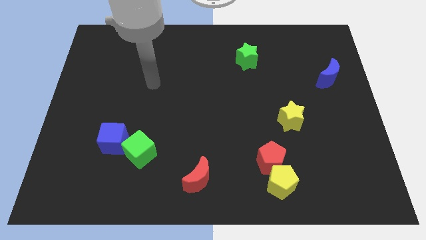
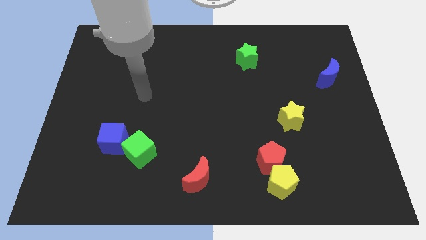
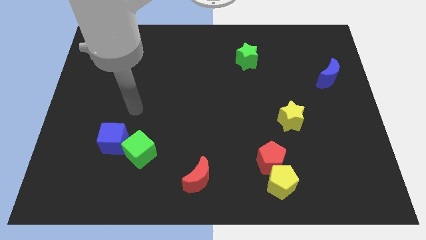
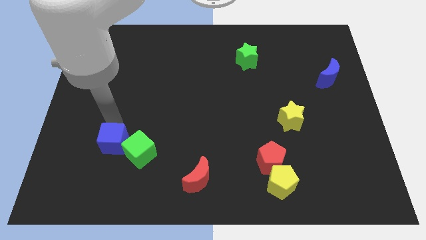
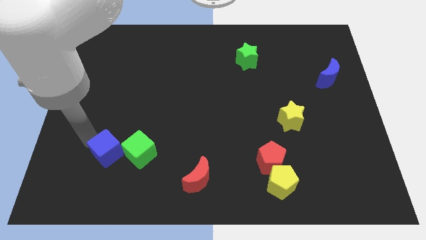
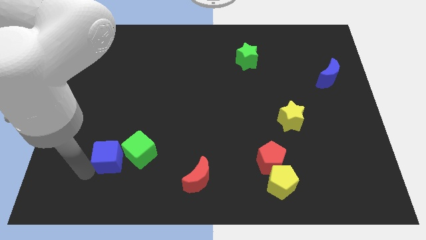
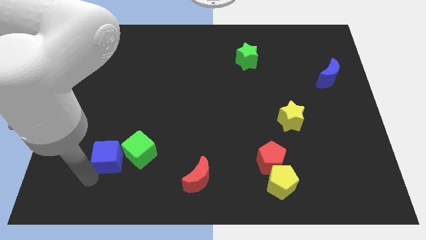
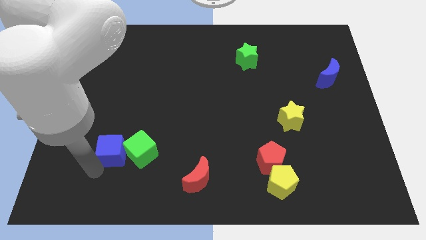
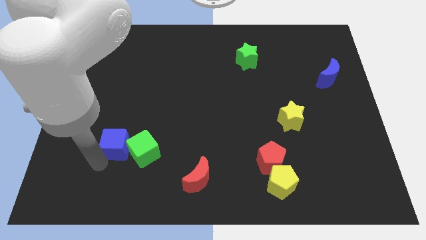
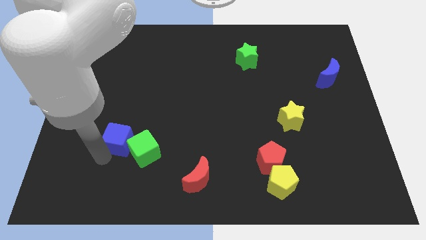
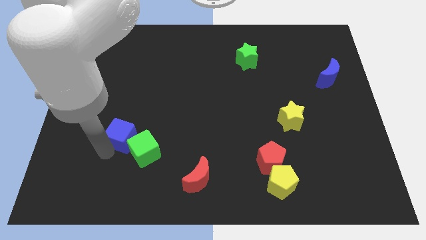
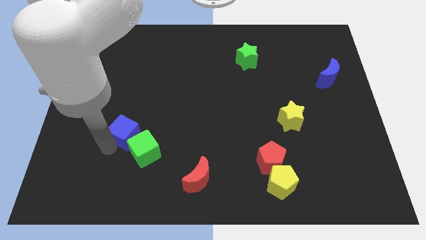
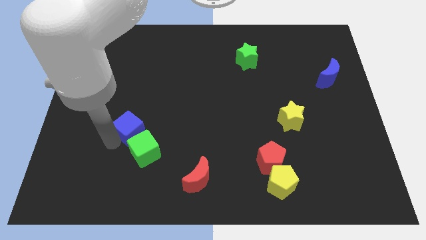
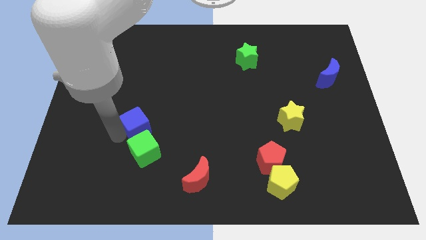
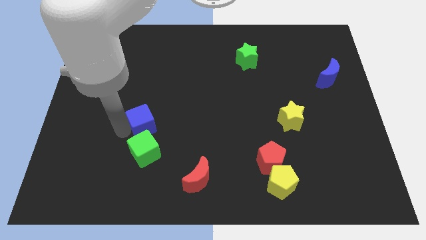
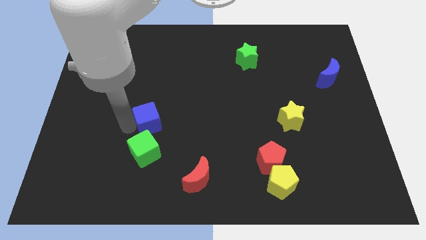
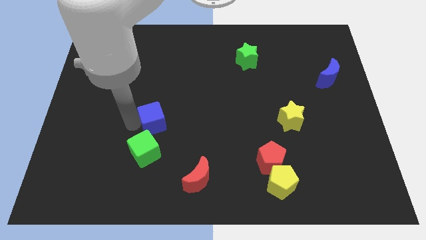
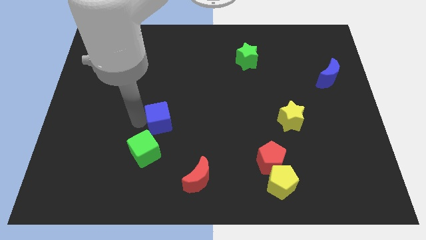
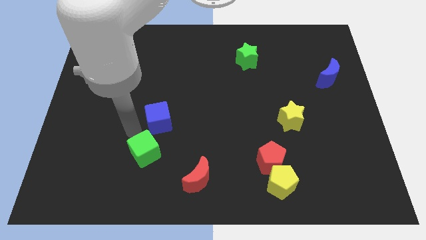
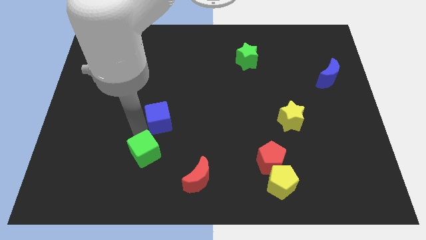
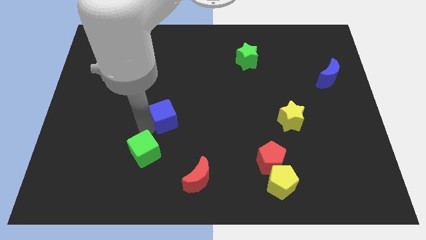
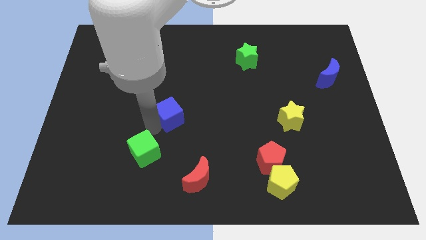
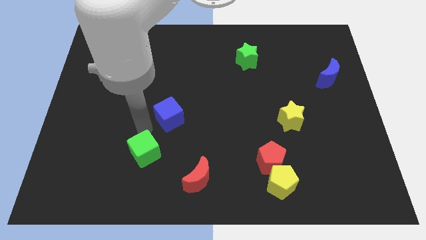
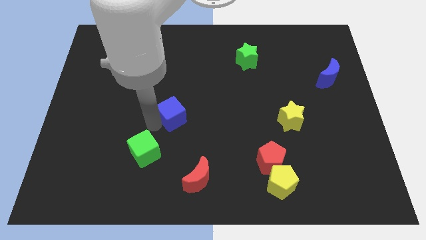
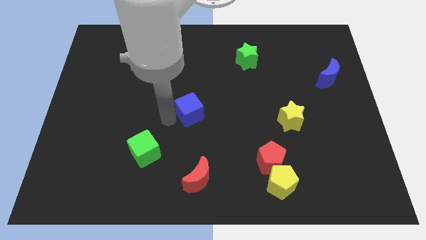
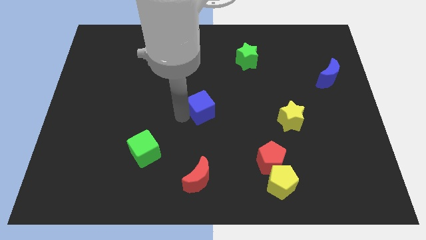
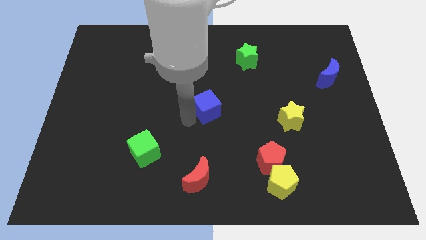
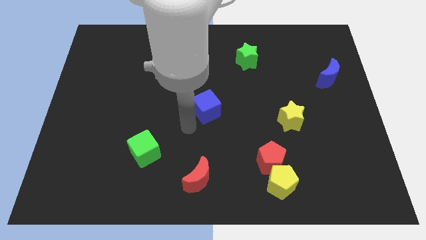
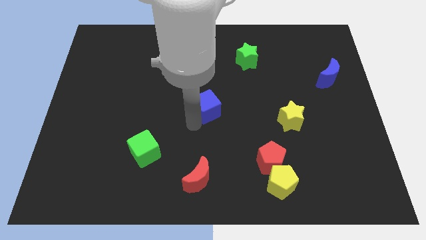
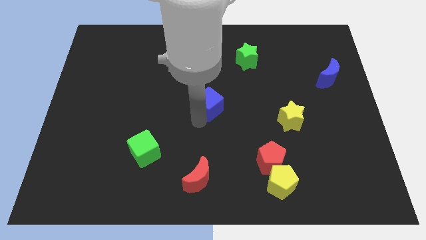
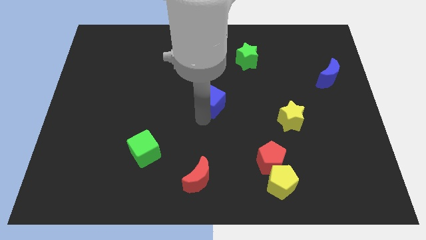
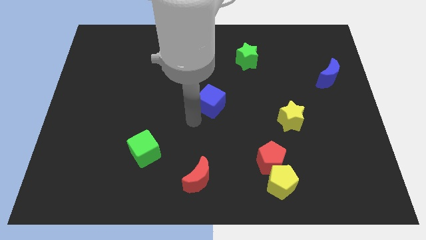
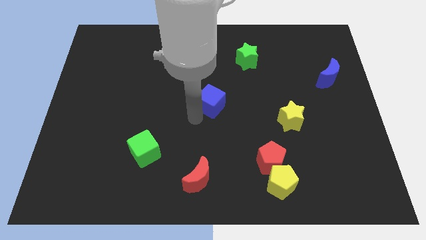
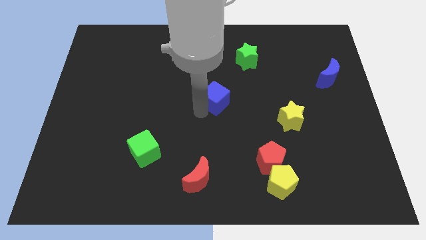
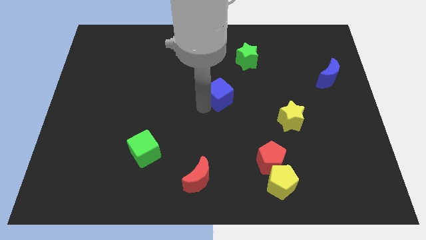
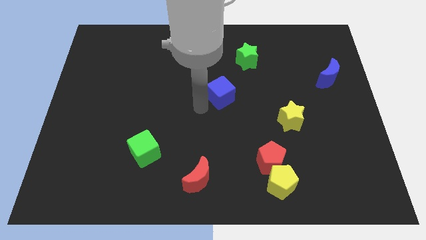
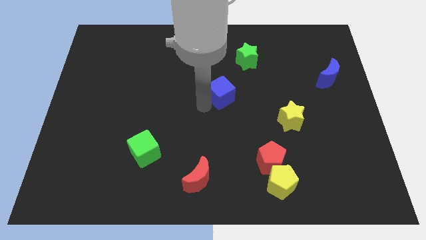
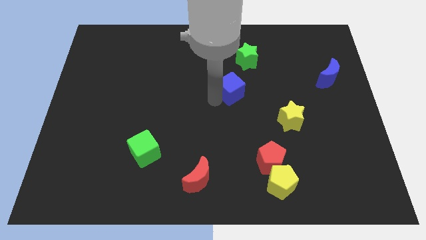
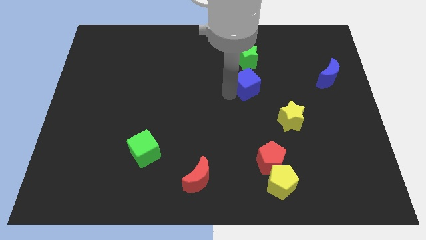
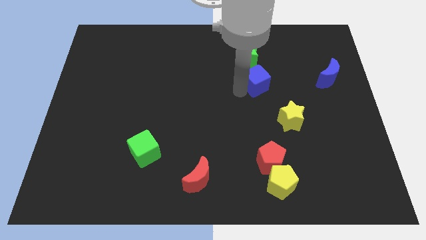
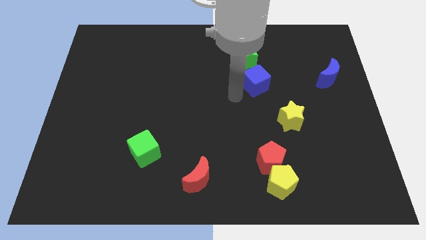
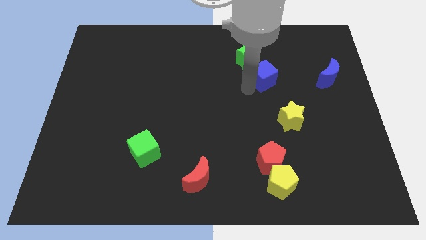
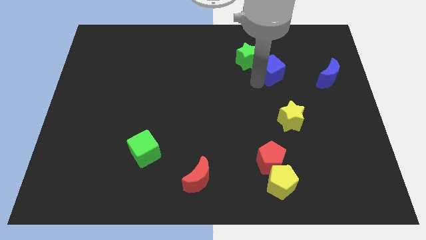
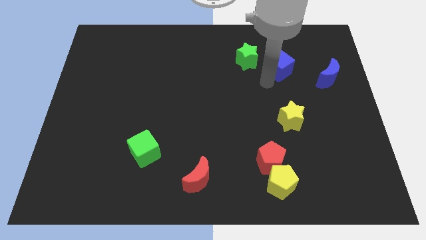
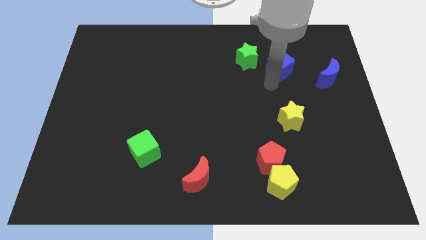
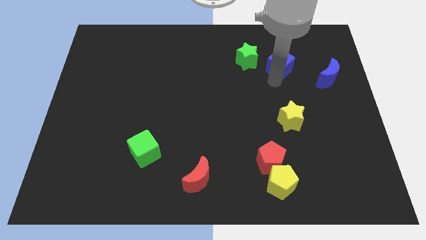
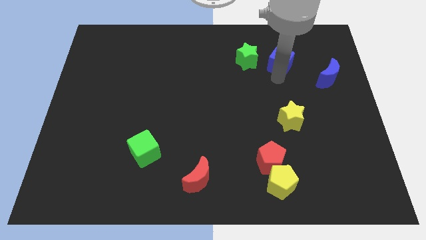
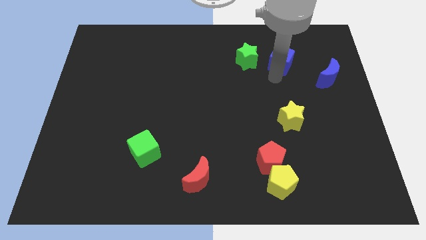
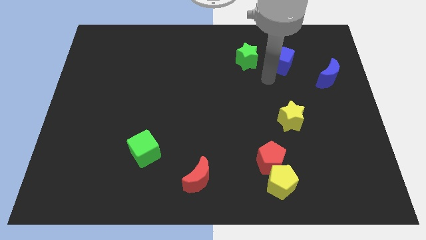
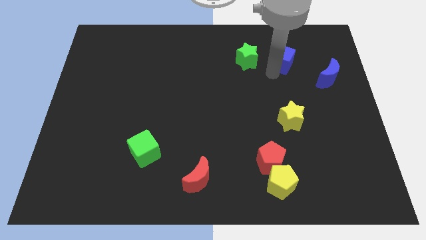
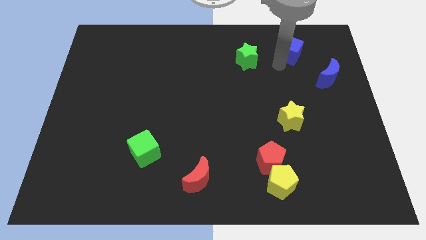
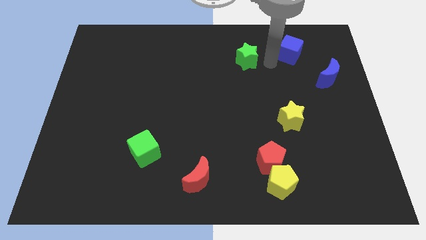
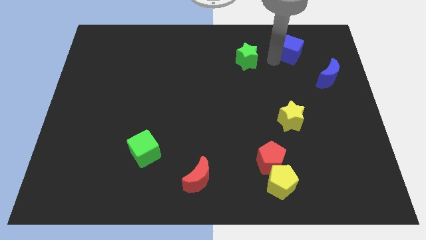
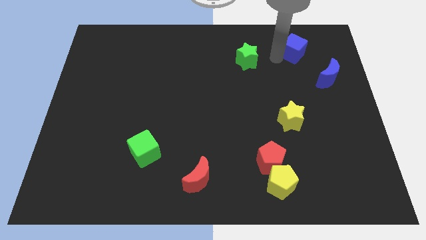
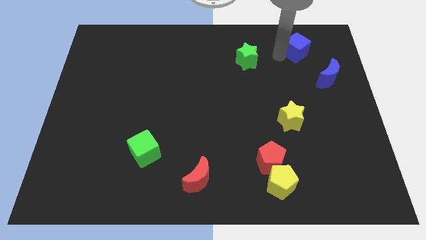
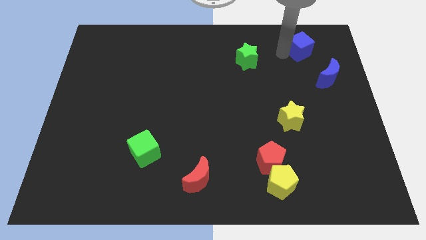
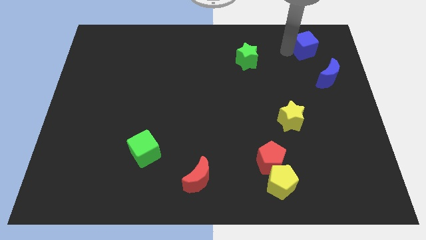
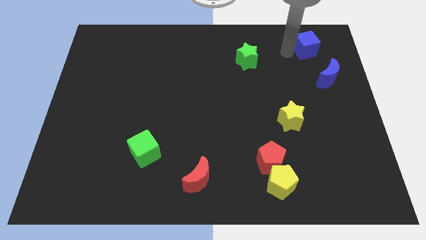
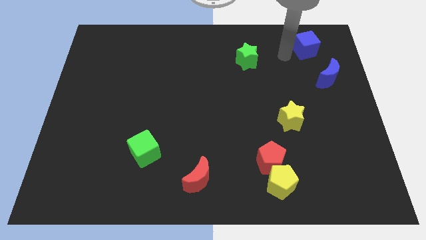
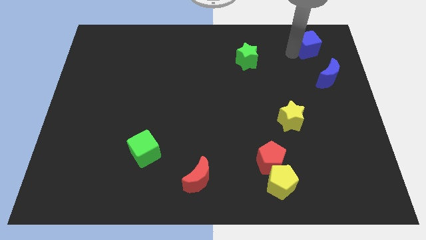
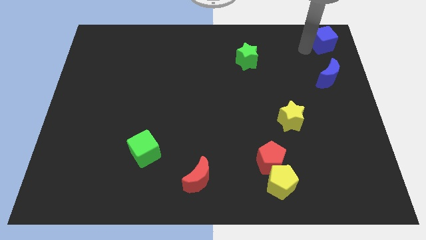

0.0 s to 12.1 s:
put the blue cube to the top right
